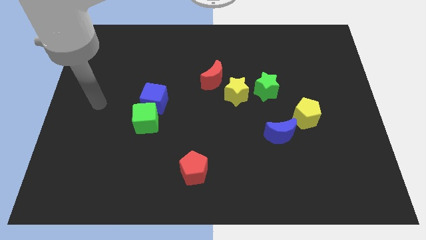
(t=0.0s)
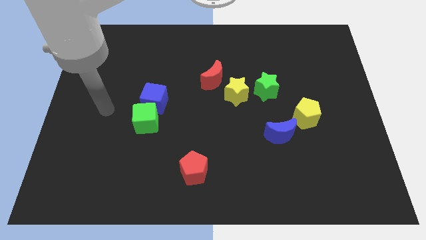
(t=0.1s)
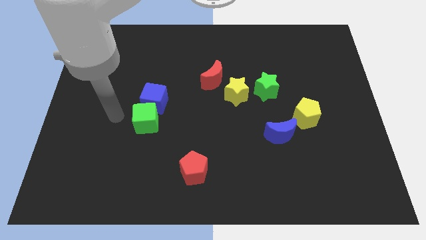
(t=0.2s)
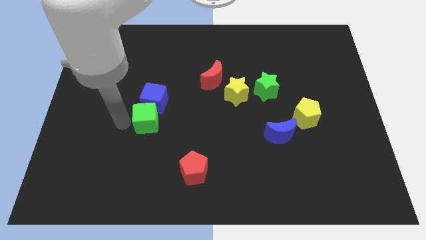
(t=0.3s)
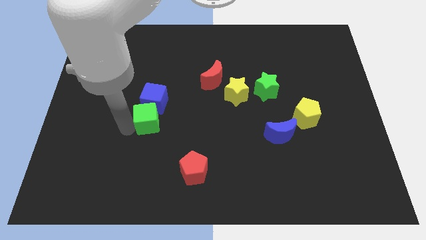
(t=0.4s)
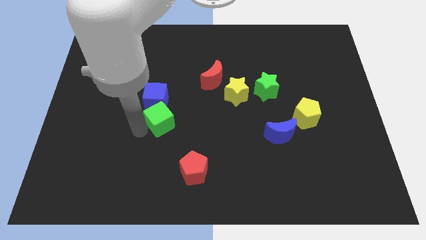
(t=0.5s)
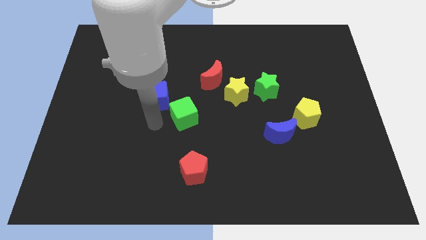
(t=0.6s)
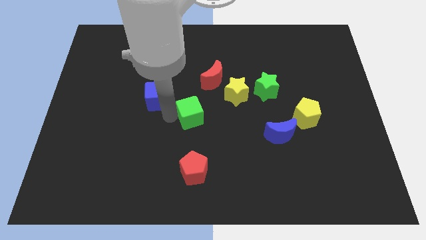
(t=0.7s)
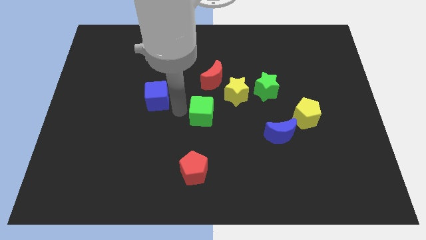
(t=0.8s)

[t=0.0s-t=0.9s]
pull the blue cube apart from the green cube

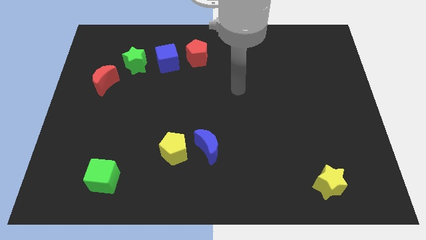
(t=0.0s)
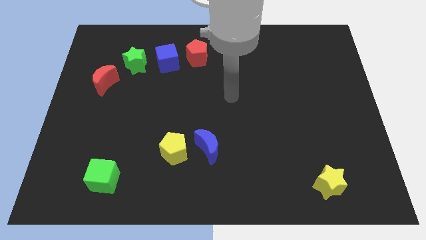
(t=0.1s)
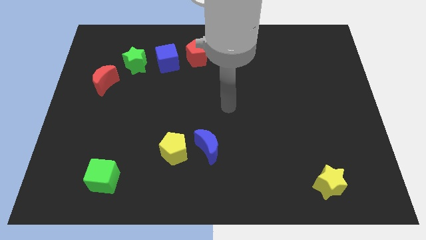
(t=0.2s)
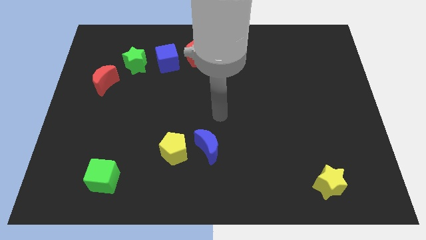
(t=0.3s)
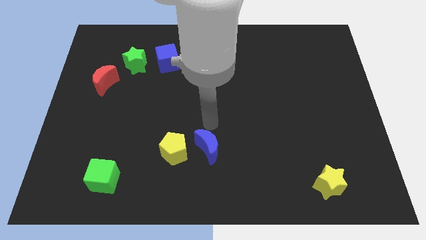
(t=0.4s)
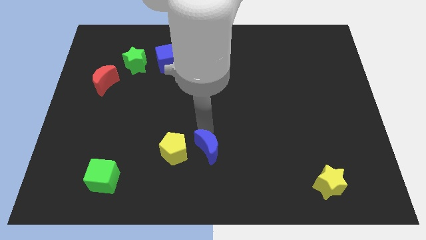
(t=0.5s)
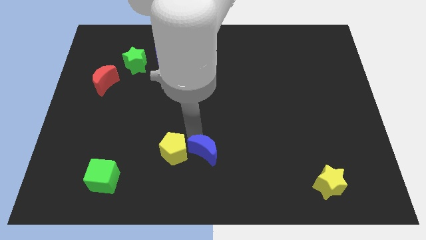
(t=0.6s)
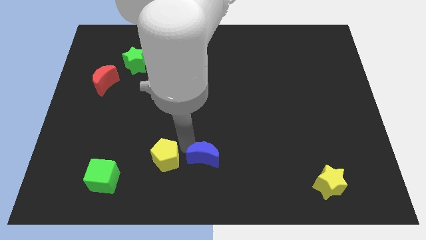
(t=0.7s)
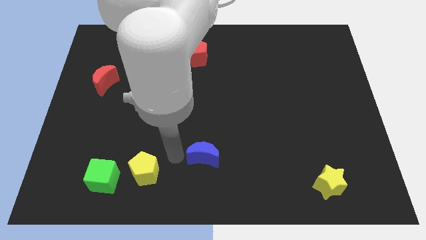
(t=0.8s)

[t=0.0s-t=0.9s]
move the blue moon away from the yellow pentagon

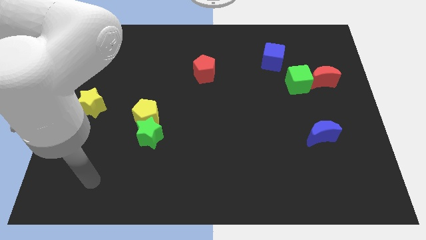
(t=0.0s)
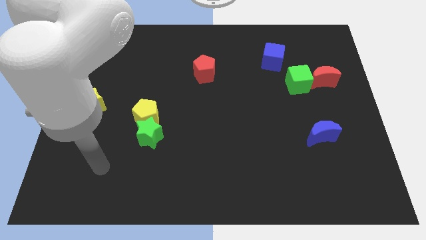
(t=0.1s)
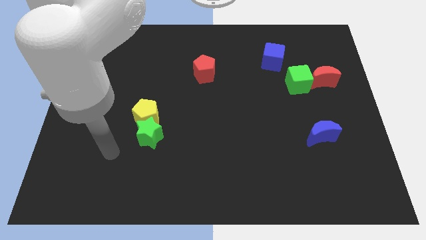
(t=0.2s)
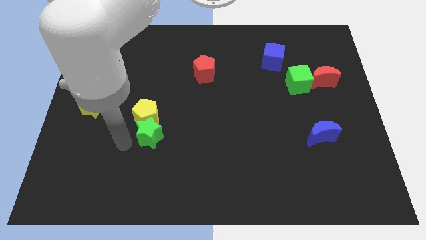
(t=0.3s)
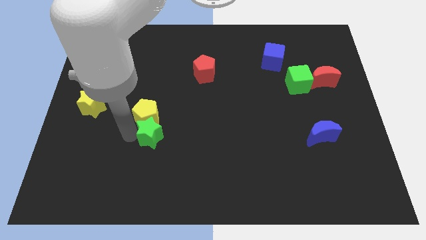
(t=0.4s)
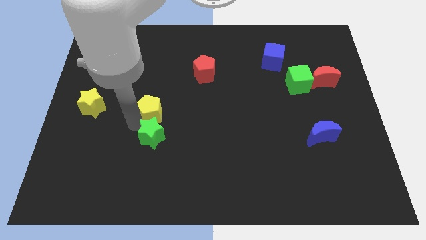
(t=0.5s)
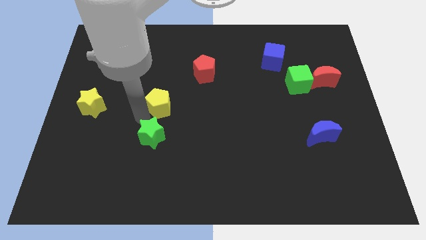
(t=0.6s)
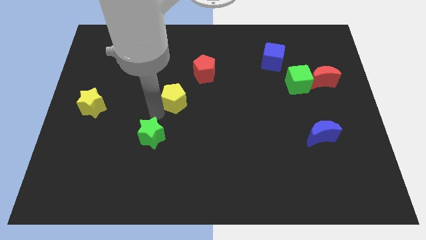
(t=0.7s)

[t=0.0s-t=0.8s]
move the green star away from the yellow pentagon

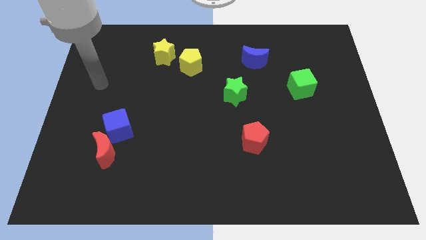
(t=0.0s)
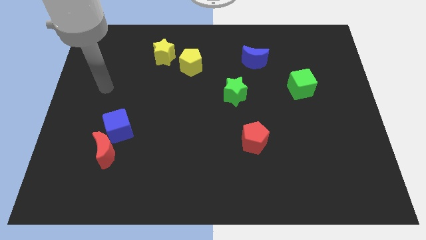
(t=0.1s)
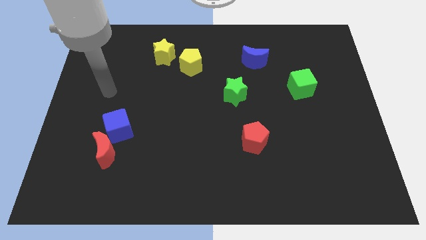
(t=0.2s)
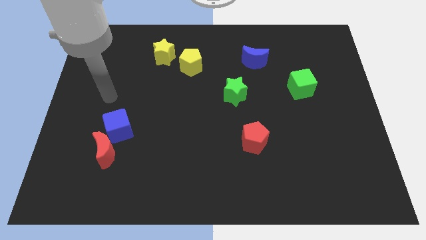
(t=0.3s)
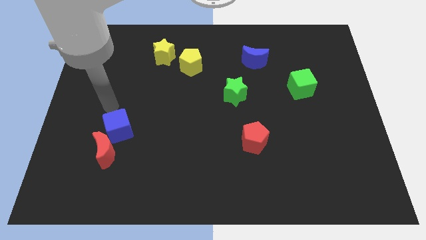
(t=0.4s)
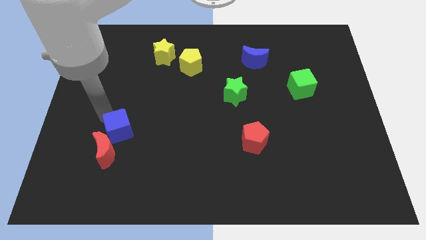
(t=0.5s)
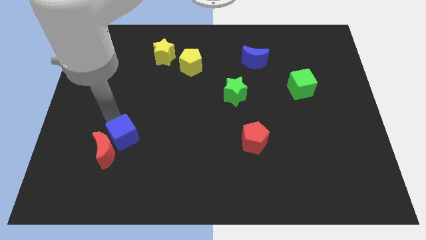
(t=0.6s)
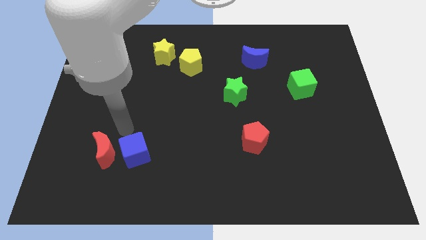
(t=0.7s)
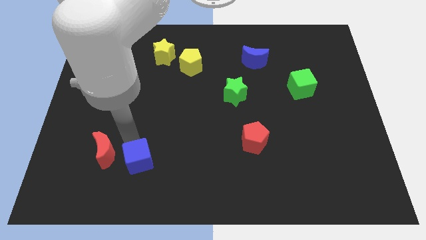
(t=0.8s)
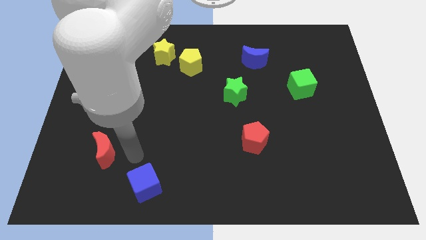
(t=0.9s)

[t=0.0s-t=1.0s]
pull the red moon apart from the blue cube

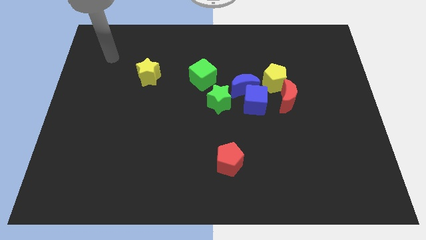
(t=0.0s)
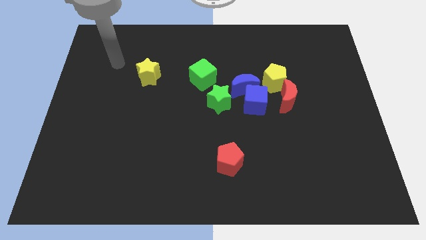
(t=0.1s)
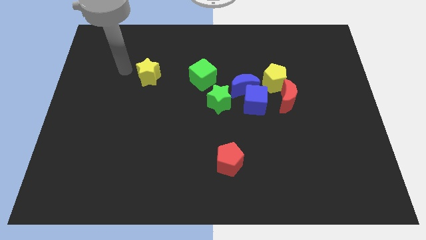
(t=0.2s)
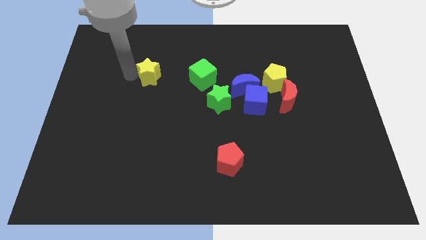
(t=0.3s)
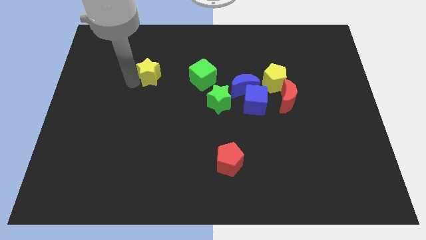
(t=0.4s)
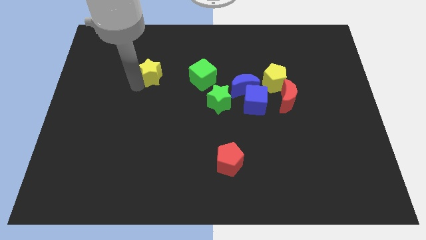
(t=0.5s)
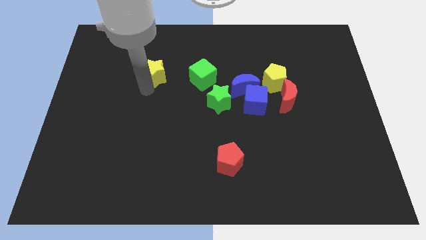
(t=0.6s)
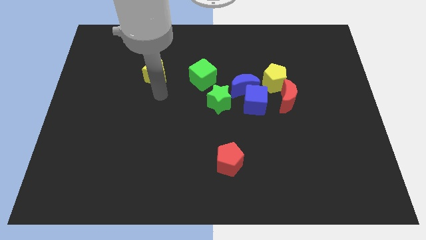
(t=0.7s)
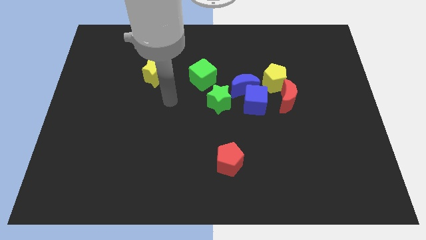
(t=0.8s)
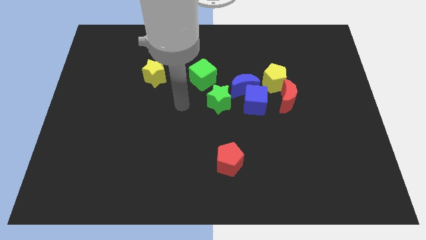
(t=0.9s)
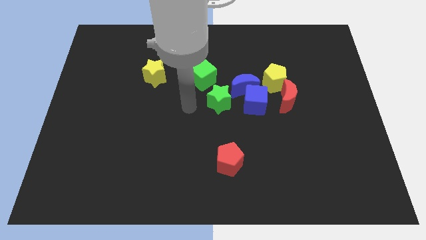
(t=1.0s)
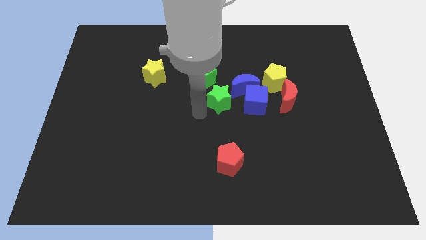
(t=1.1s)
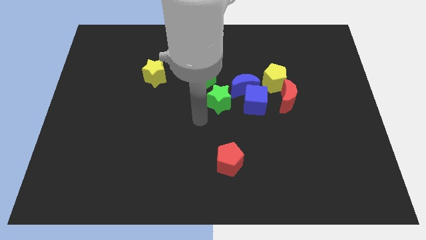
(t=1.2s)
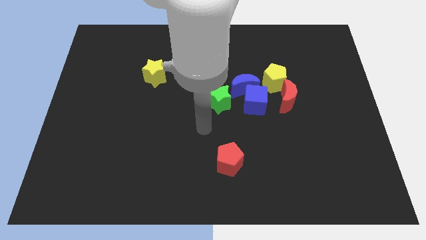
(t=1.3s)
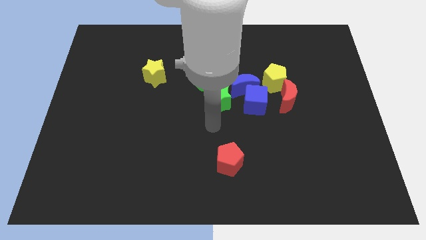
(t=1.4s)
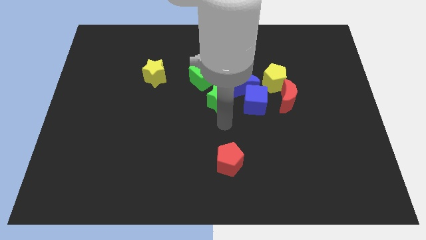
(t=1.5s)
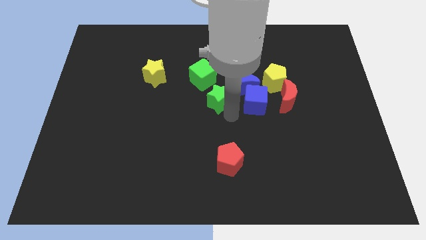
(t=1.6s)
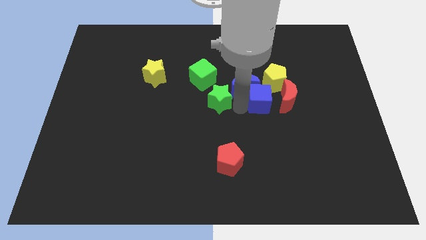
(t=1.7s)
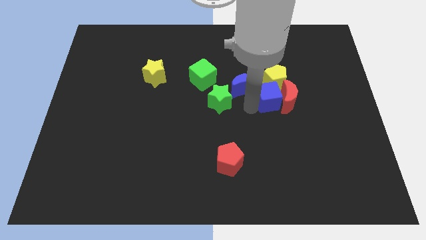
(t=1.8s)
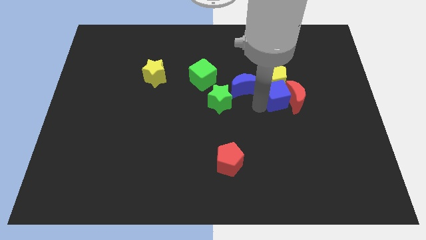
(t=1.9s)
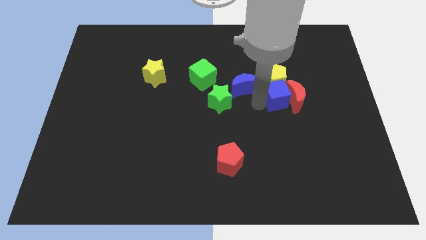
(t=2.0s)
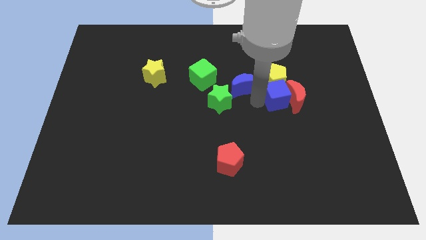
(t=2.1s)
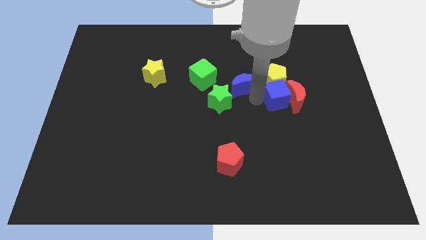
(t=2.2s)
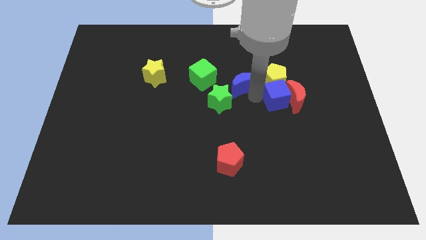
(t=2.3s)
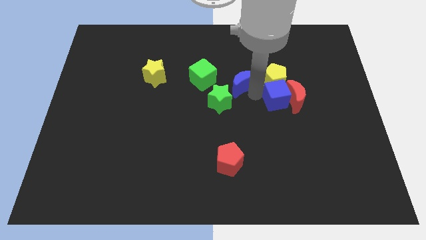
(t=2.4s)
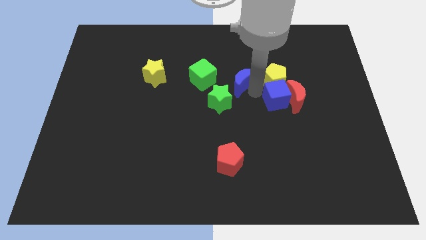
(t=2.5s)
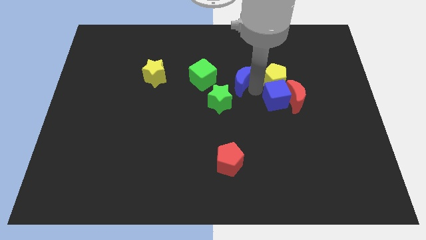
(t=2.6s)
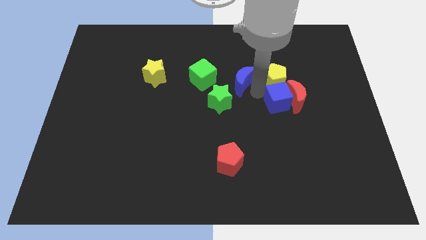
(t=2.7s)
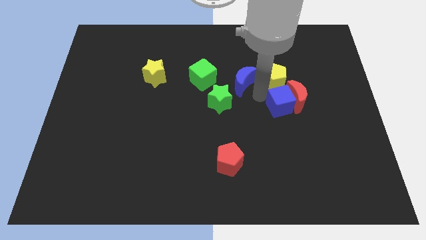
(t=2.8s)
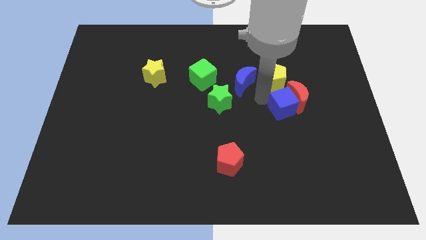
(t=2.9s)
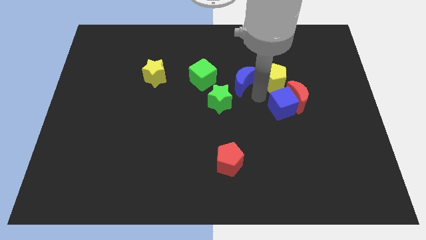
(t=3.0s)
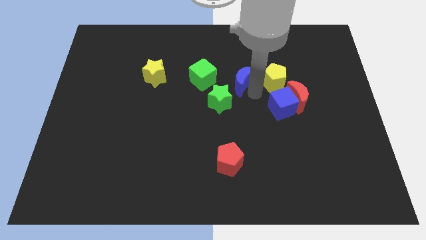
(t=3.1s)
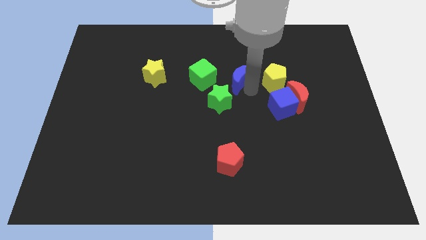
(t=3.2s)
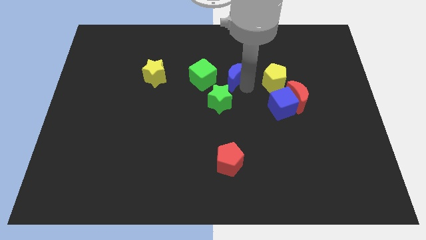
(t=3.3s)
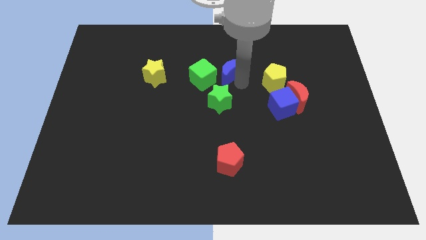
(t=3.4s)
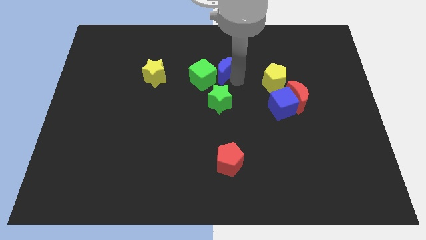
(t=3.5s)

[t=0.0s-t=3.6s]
separate the blue moon from the blue cube, green star, and yellow pentagon

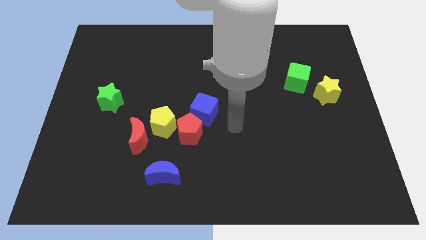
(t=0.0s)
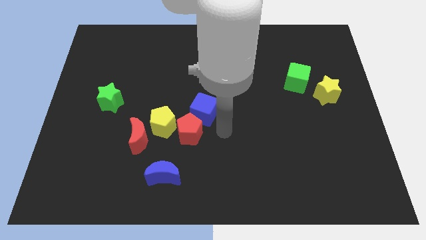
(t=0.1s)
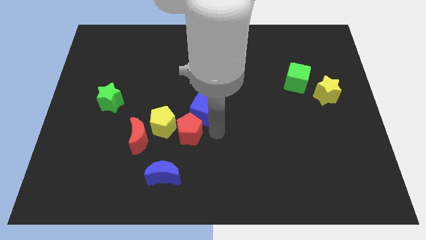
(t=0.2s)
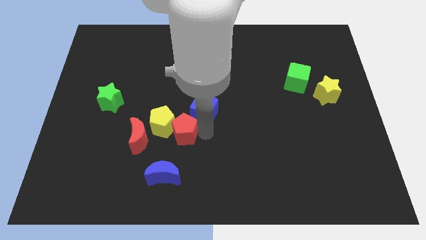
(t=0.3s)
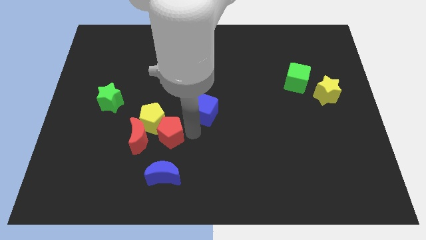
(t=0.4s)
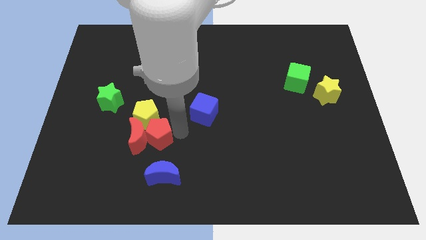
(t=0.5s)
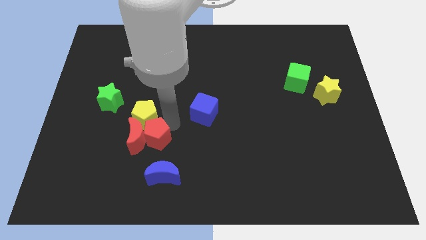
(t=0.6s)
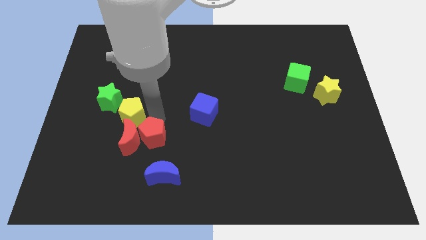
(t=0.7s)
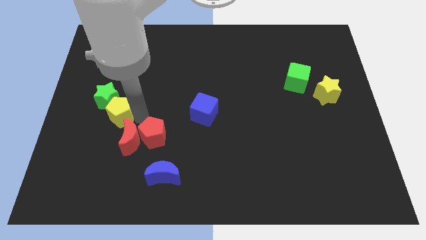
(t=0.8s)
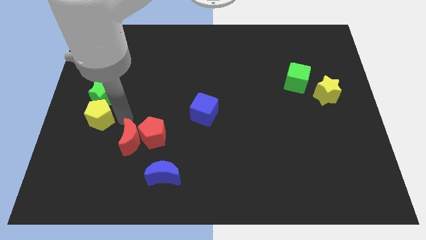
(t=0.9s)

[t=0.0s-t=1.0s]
separate the red moon from the yellow pentagon

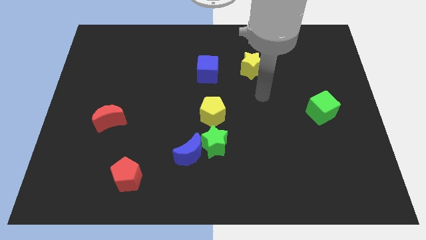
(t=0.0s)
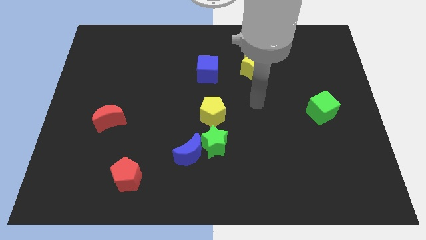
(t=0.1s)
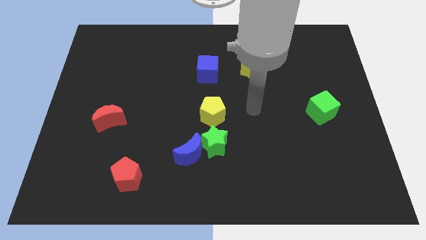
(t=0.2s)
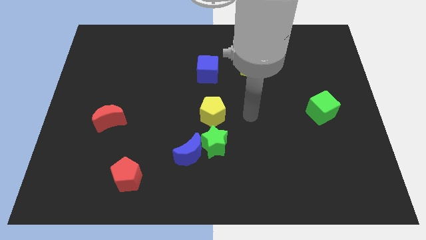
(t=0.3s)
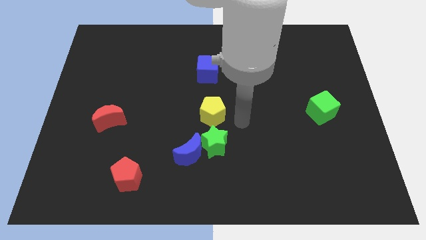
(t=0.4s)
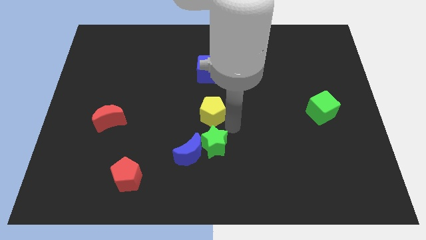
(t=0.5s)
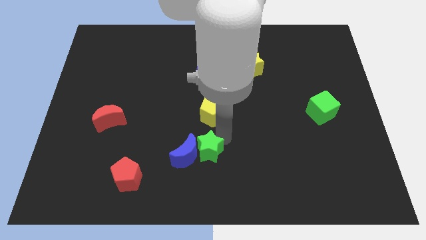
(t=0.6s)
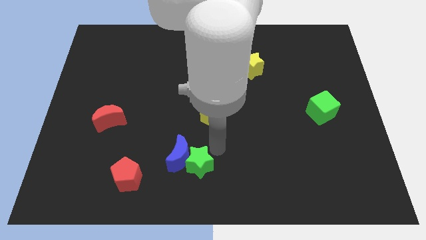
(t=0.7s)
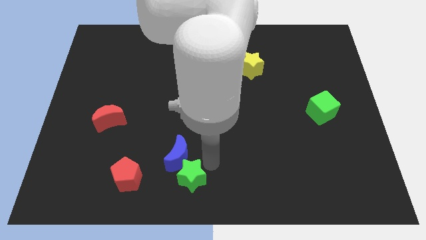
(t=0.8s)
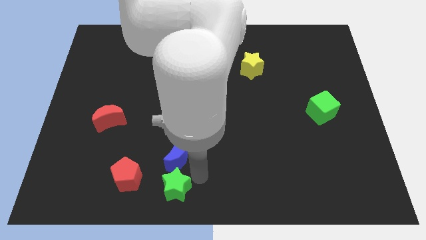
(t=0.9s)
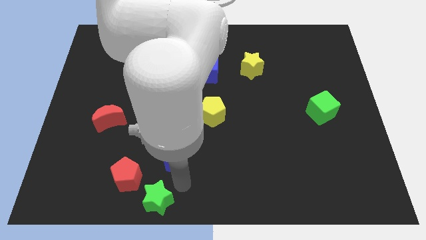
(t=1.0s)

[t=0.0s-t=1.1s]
separate the blue moon from the green star
